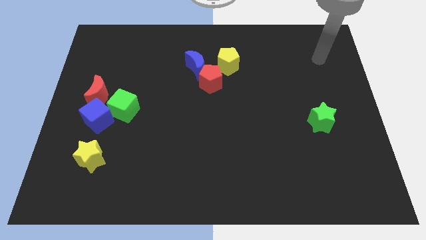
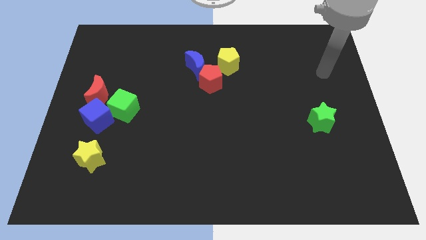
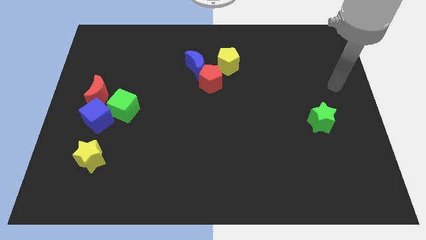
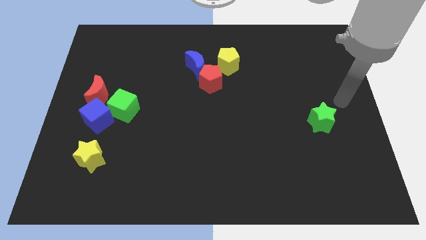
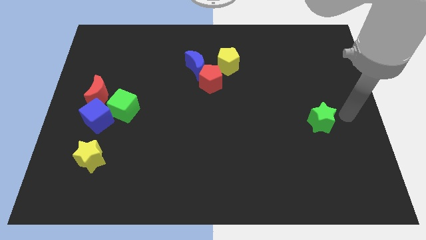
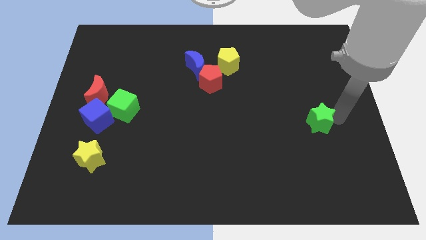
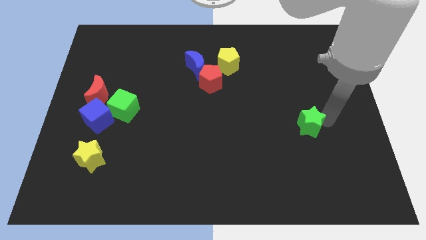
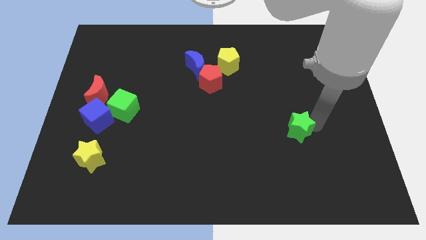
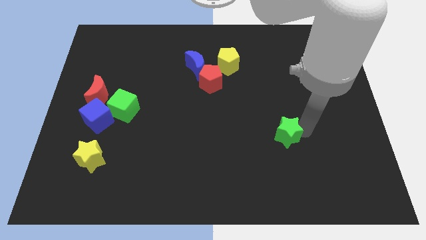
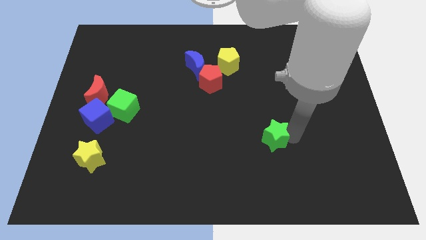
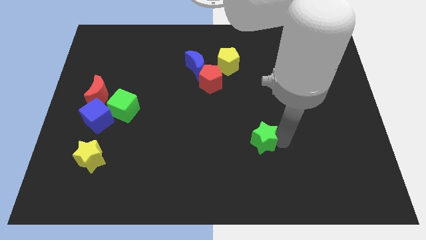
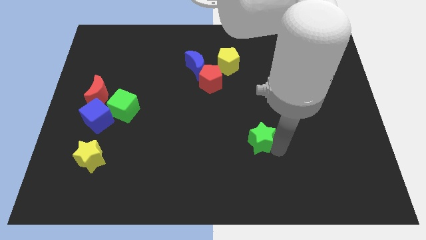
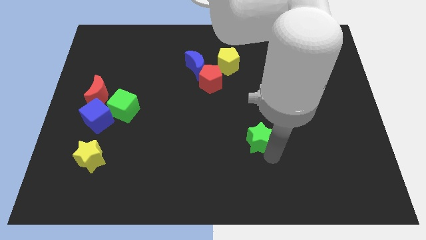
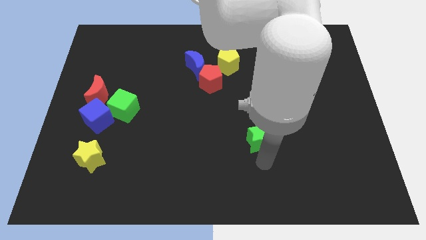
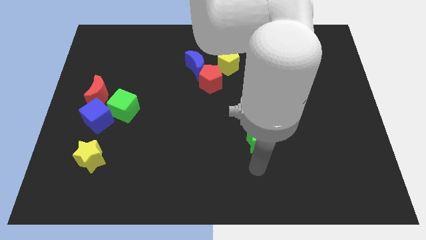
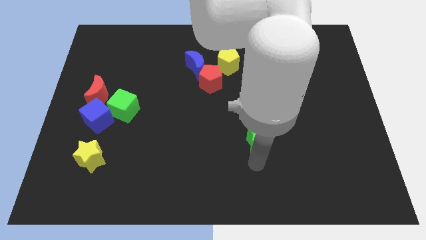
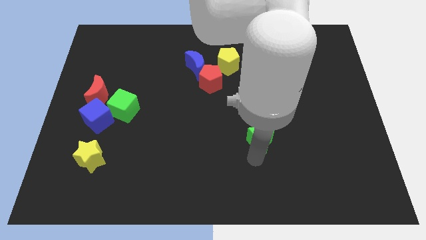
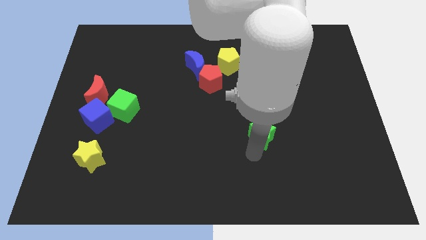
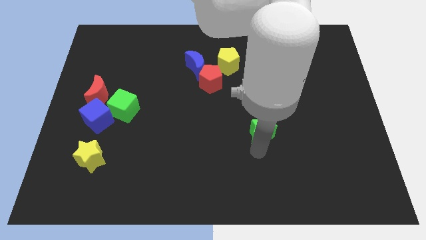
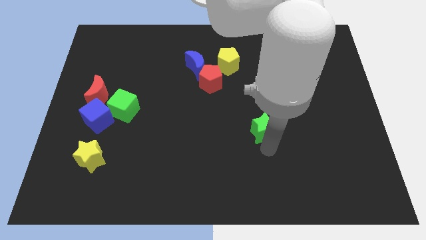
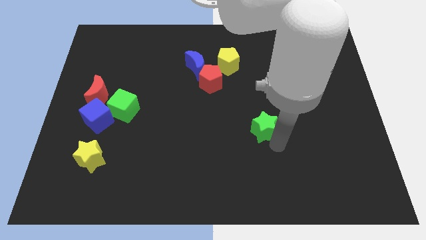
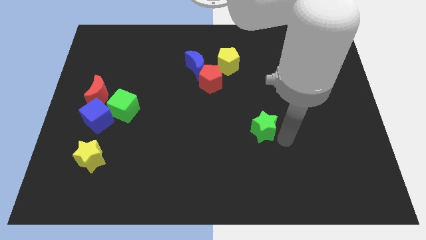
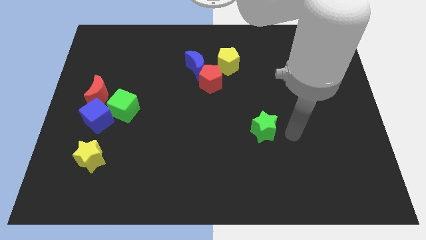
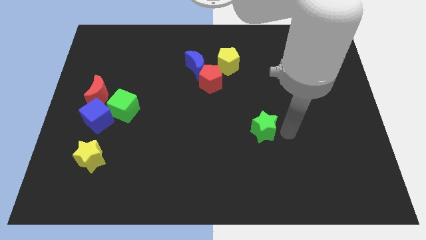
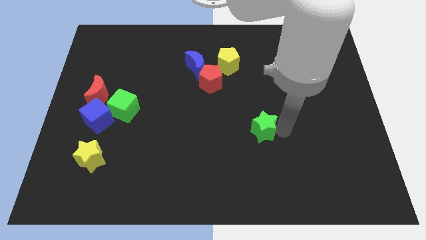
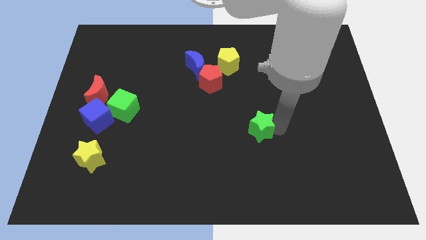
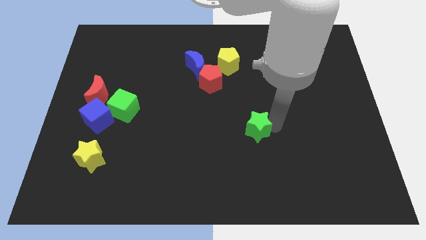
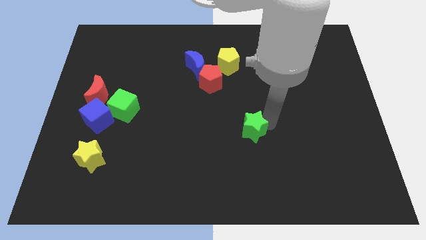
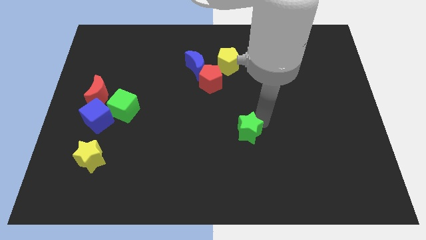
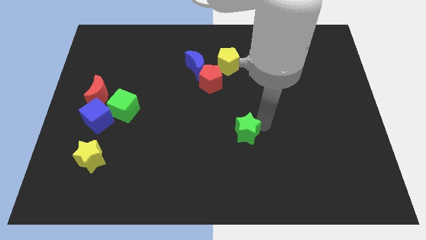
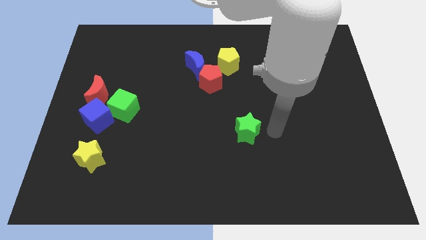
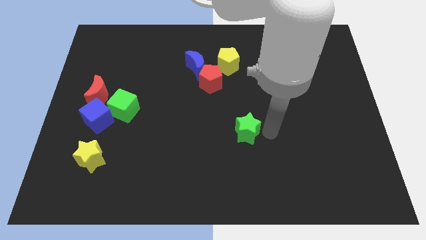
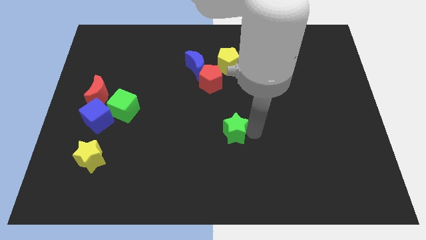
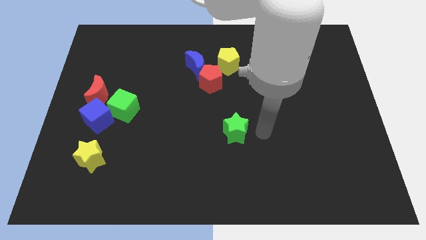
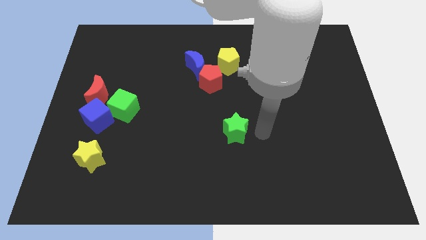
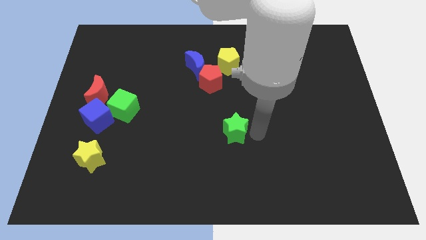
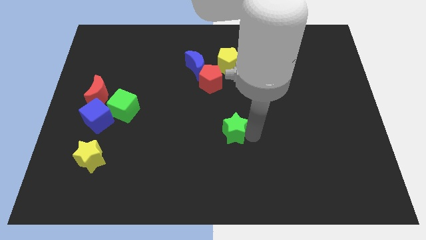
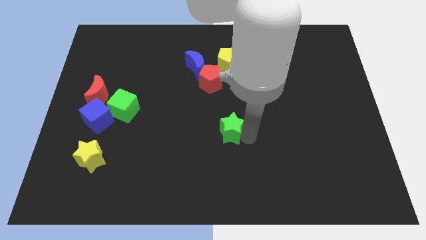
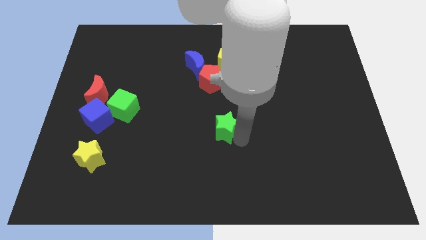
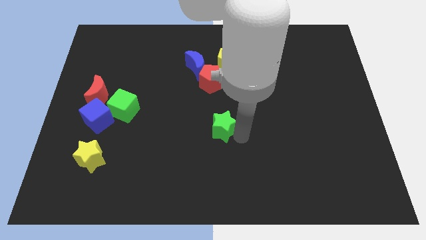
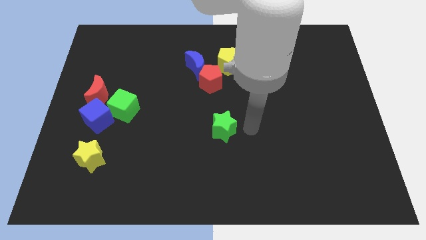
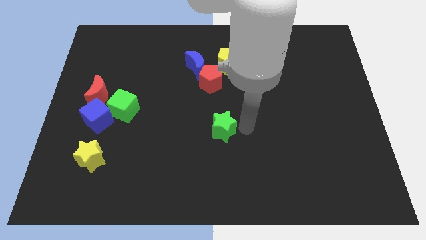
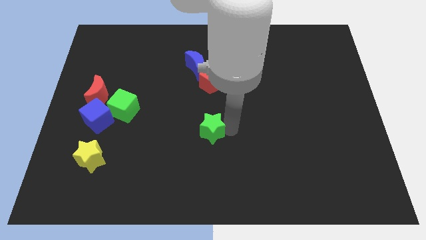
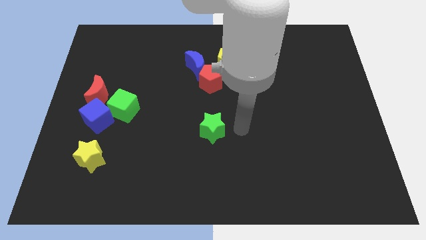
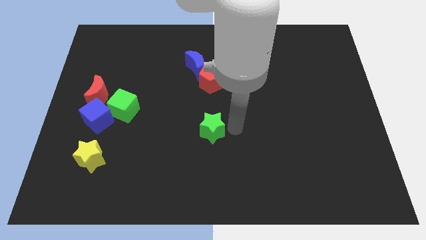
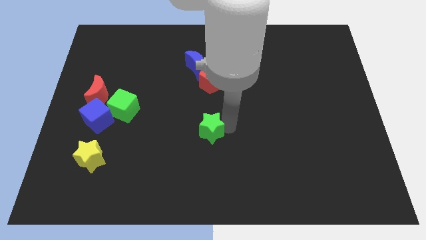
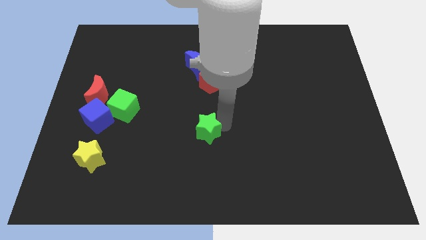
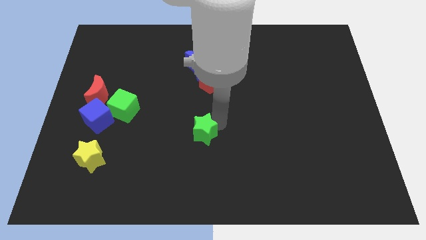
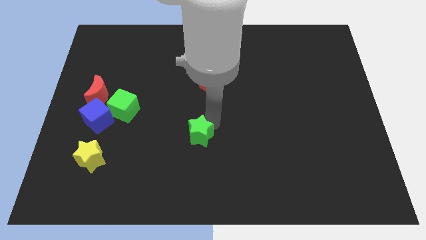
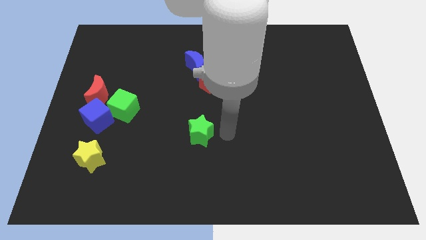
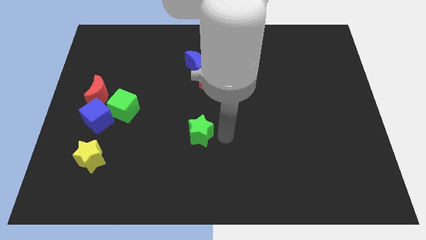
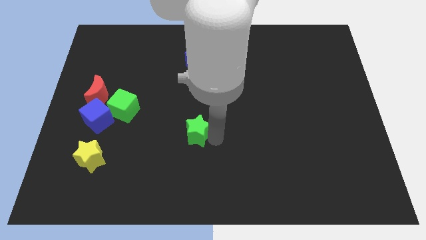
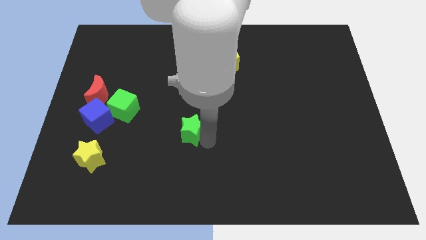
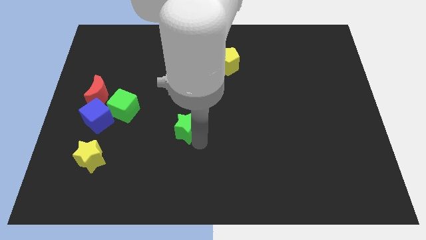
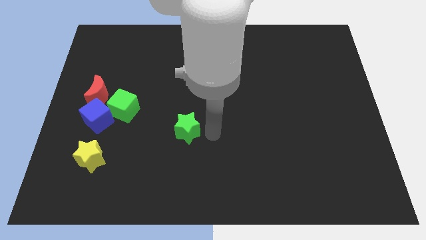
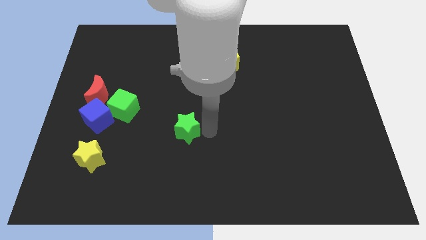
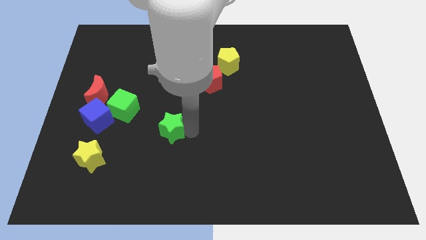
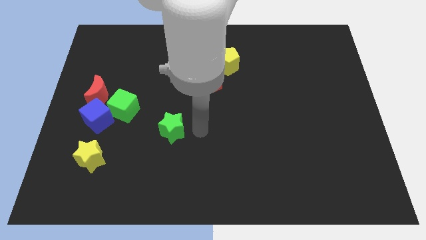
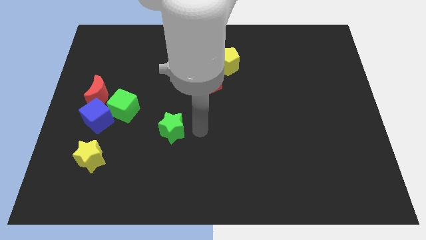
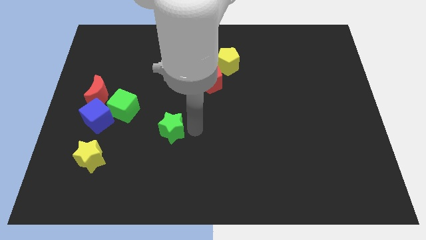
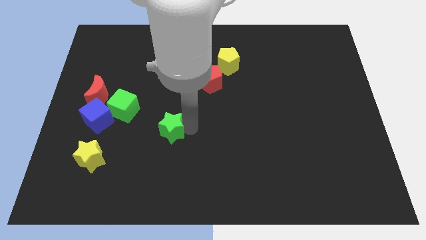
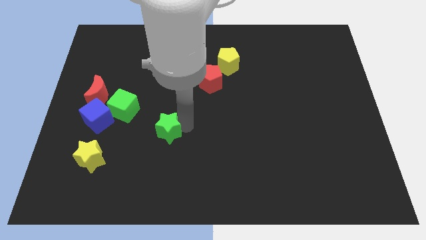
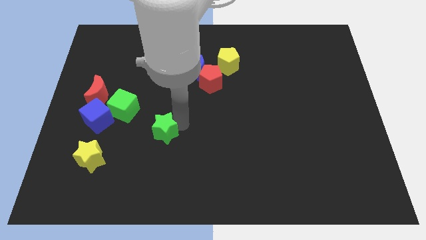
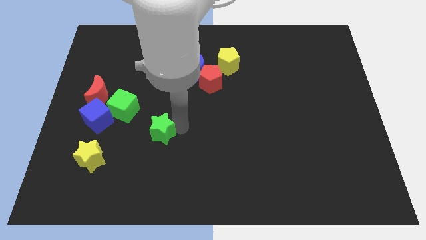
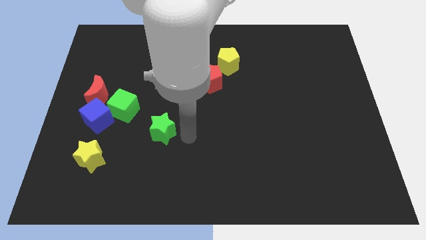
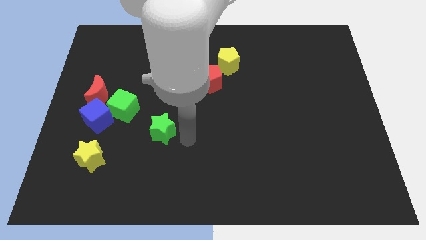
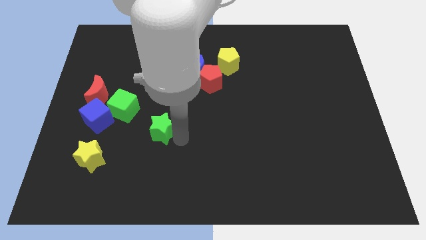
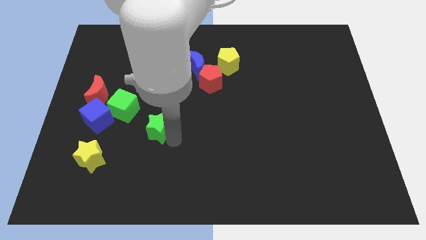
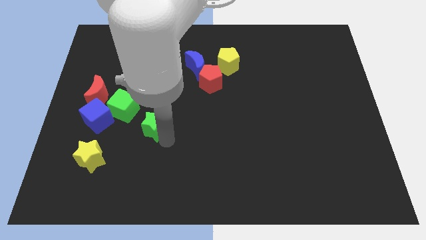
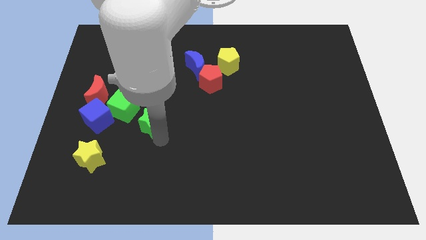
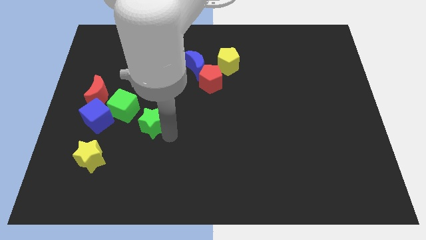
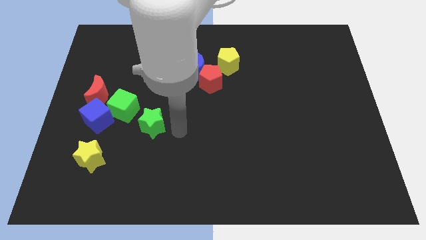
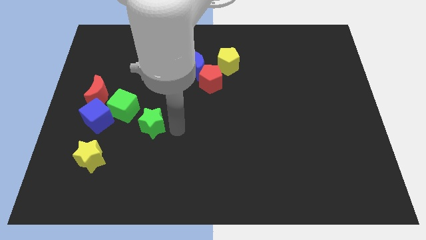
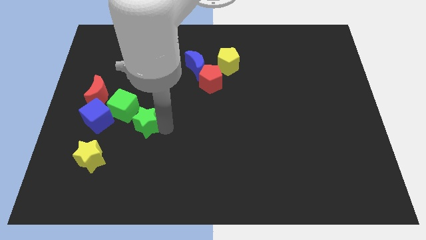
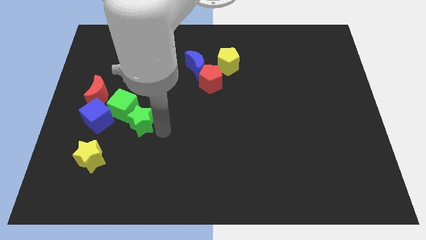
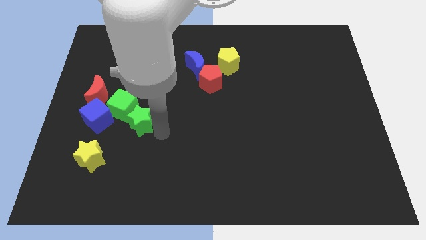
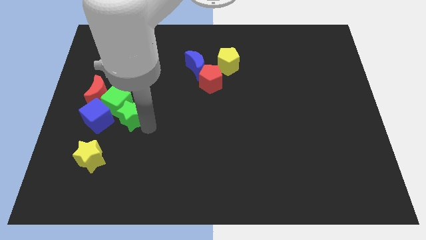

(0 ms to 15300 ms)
push the green star diagonally down and to the right of the red moon
